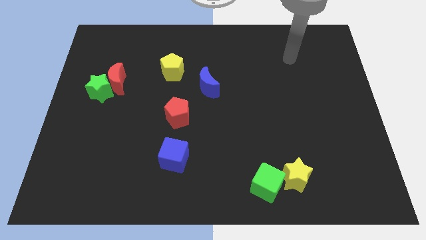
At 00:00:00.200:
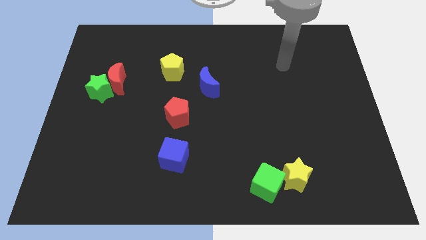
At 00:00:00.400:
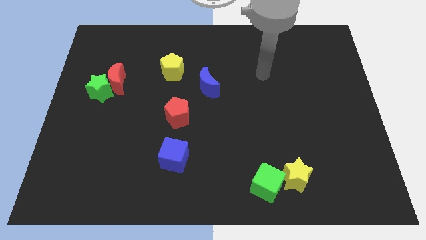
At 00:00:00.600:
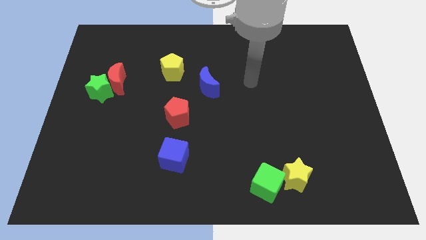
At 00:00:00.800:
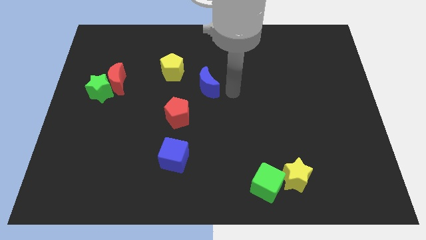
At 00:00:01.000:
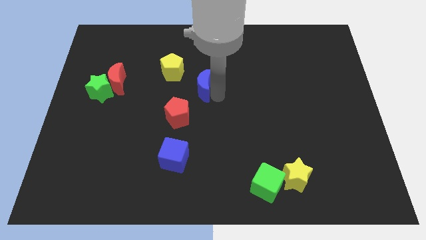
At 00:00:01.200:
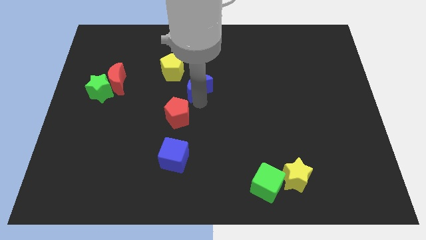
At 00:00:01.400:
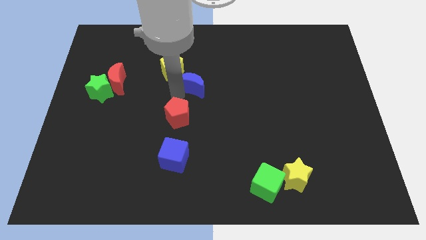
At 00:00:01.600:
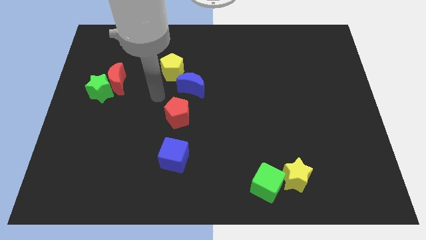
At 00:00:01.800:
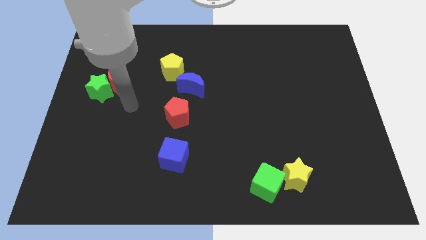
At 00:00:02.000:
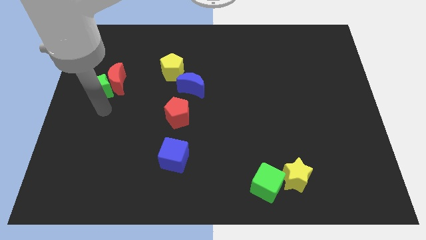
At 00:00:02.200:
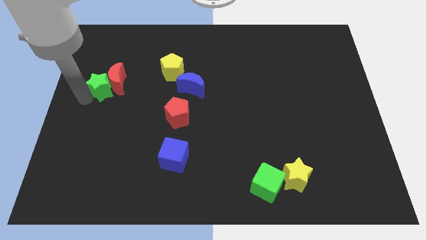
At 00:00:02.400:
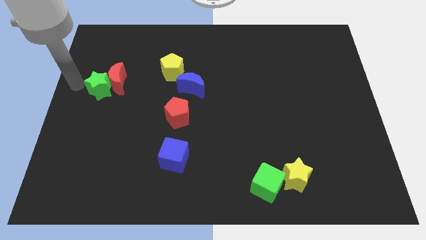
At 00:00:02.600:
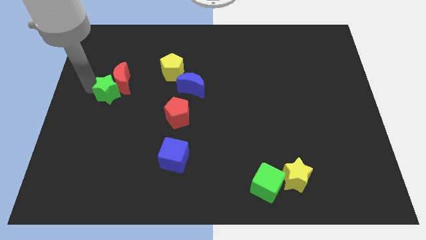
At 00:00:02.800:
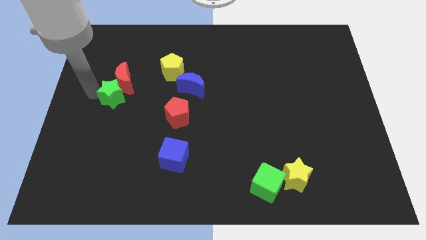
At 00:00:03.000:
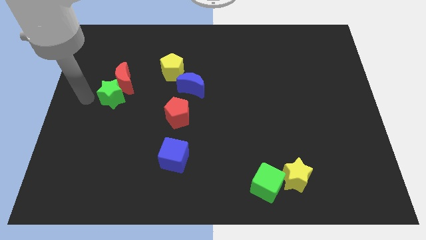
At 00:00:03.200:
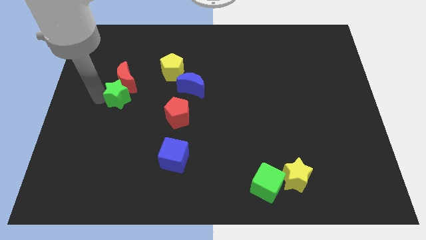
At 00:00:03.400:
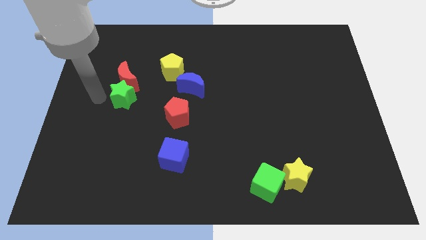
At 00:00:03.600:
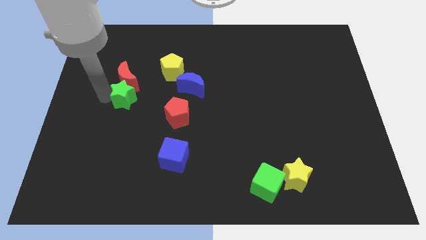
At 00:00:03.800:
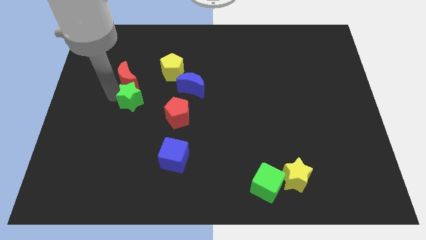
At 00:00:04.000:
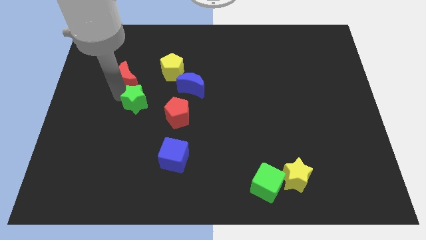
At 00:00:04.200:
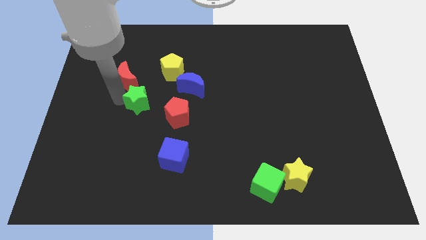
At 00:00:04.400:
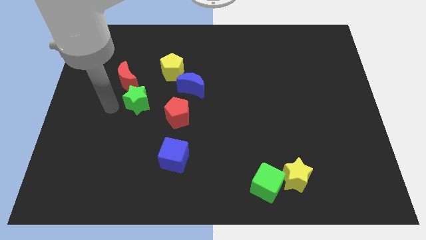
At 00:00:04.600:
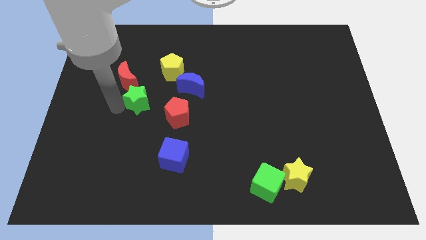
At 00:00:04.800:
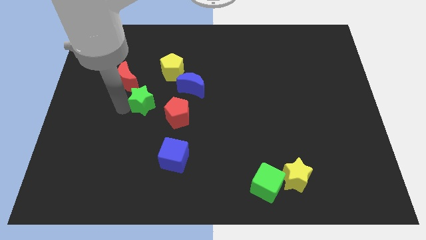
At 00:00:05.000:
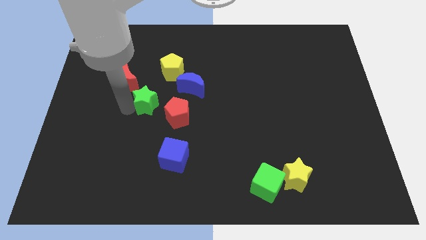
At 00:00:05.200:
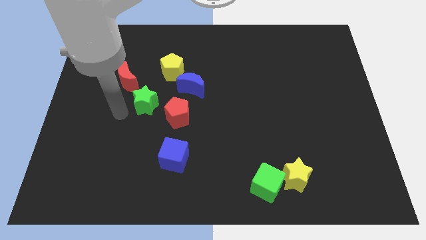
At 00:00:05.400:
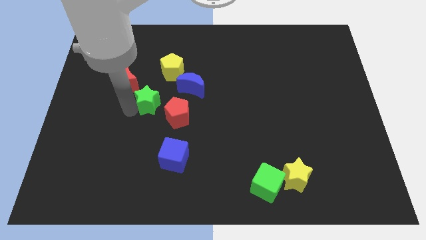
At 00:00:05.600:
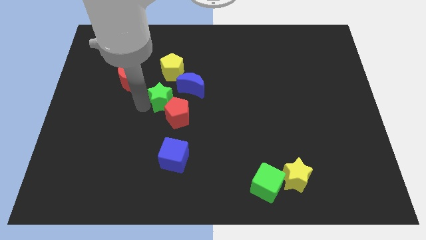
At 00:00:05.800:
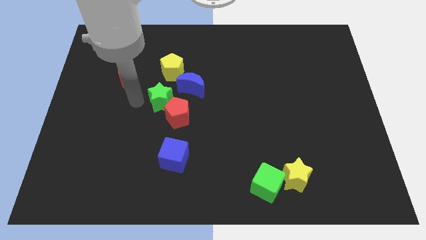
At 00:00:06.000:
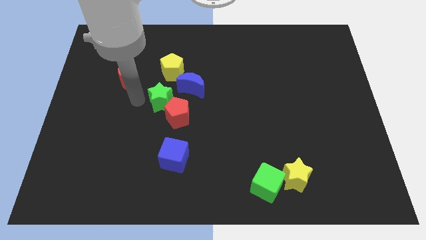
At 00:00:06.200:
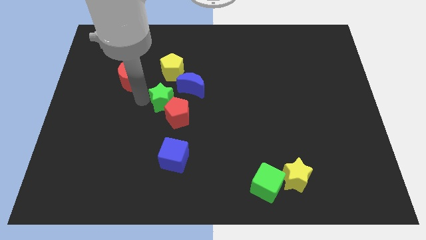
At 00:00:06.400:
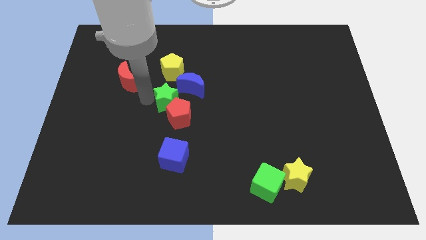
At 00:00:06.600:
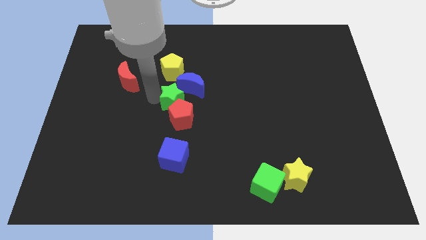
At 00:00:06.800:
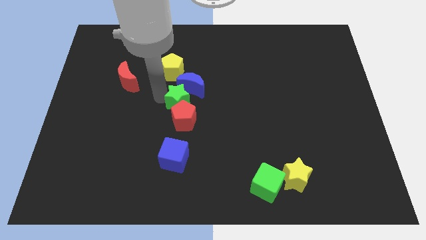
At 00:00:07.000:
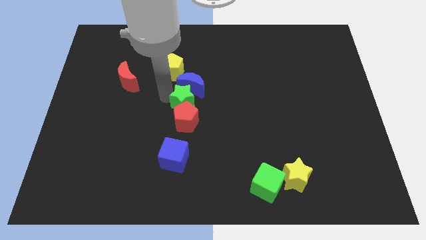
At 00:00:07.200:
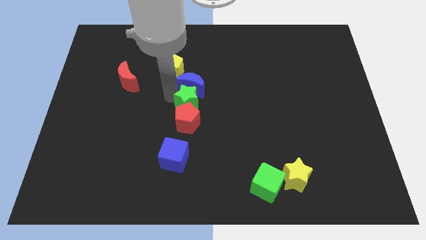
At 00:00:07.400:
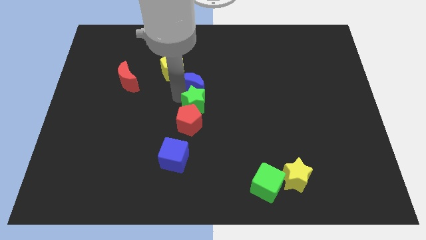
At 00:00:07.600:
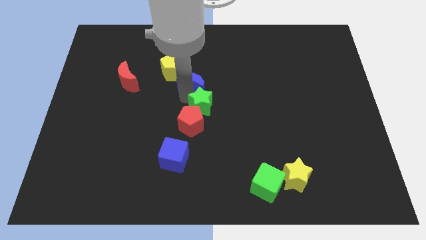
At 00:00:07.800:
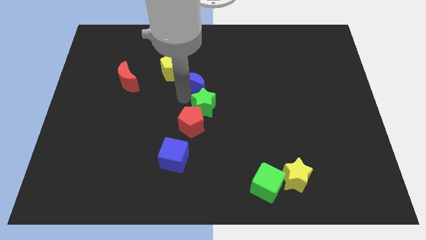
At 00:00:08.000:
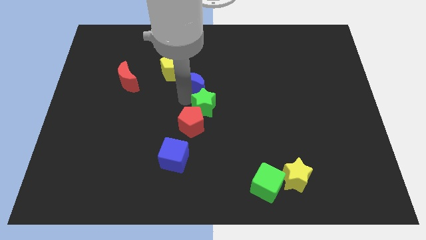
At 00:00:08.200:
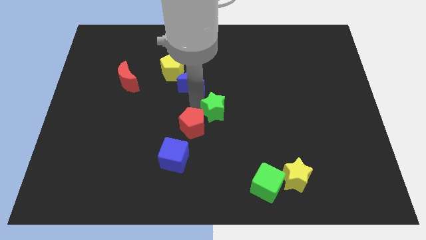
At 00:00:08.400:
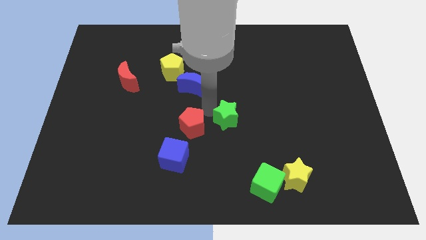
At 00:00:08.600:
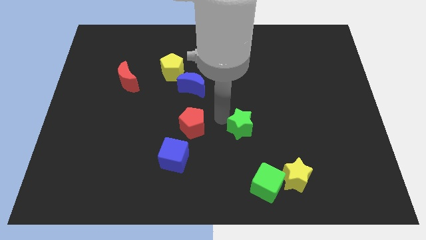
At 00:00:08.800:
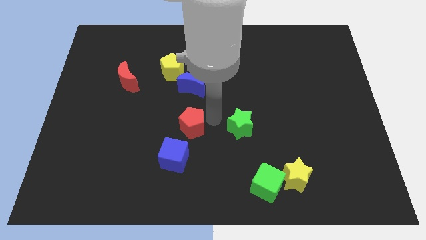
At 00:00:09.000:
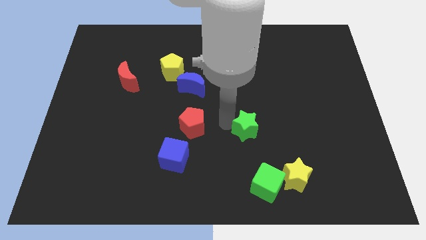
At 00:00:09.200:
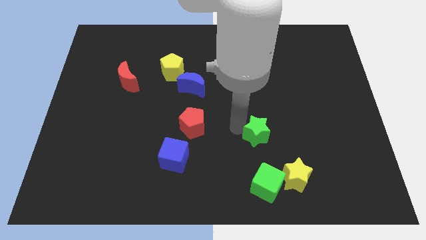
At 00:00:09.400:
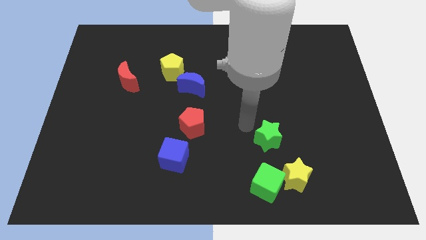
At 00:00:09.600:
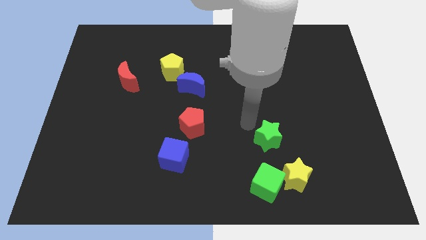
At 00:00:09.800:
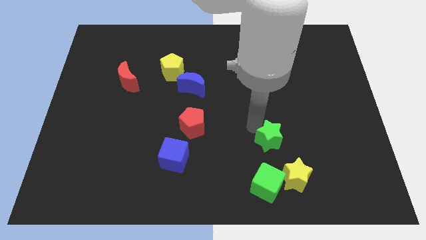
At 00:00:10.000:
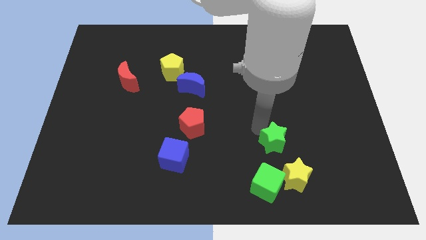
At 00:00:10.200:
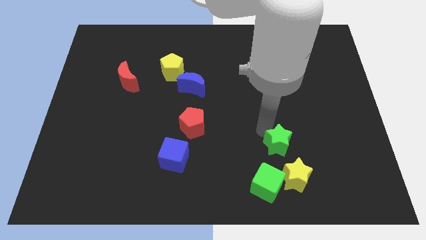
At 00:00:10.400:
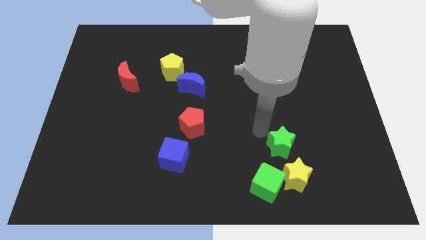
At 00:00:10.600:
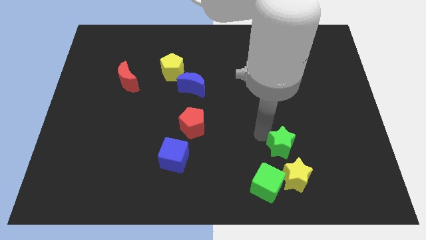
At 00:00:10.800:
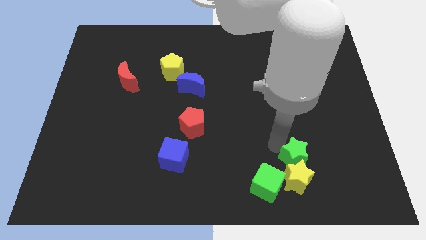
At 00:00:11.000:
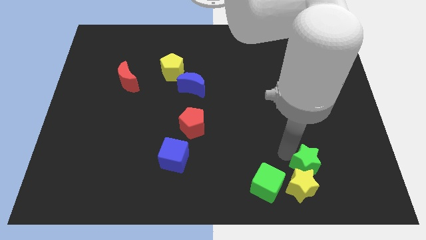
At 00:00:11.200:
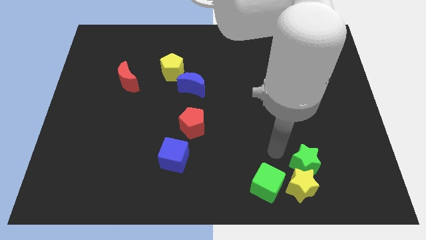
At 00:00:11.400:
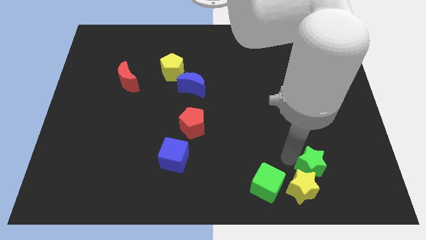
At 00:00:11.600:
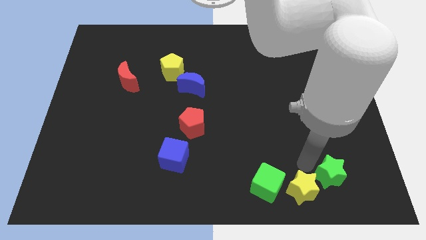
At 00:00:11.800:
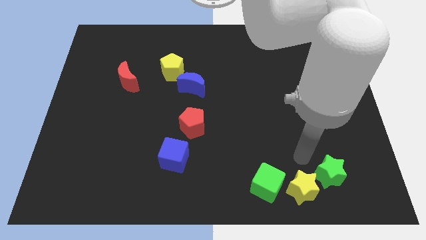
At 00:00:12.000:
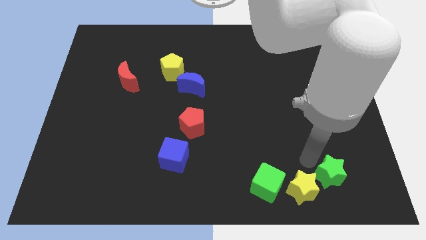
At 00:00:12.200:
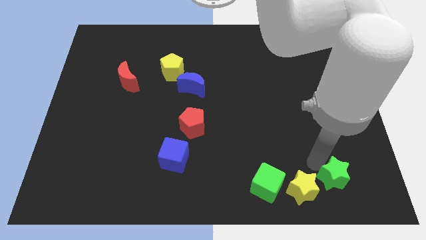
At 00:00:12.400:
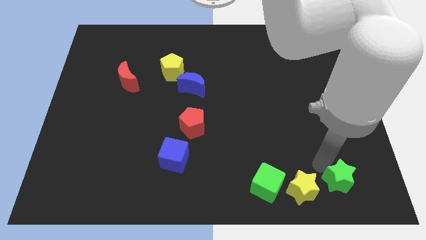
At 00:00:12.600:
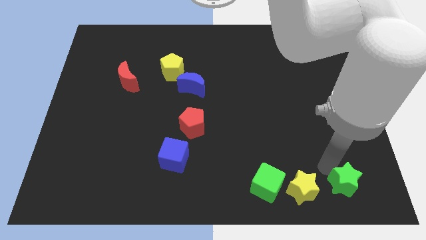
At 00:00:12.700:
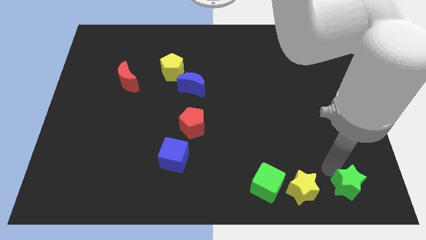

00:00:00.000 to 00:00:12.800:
slide the green star to the bottom right of the board
